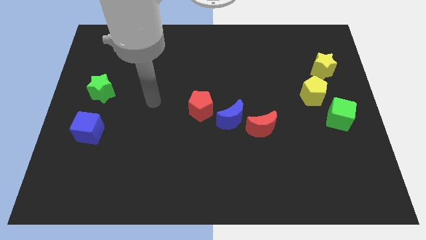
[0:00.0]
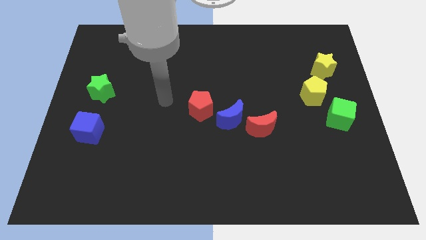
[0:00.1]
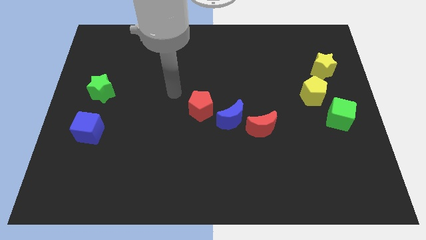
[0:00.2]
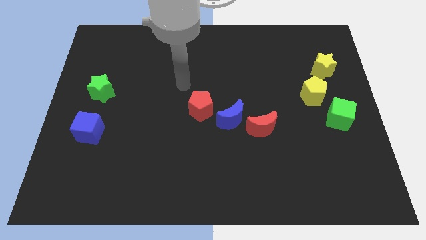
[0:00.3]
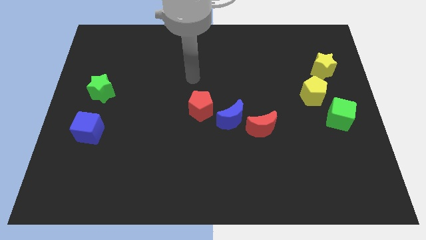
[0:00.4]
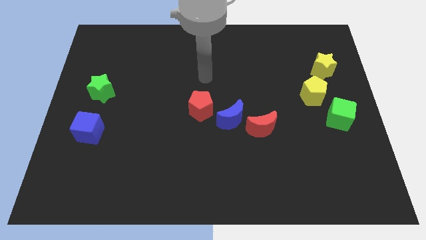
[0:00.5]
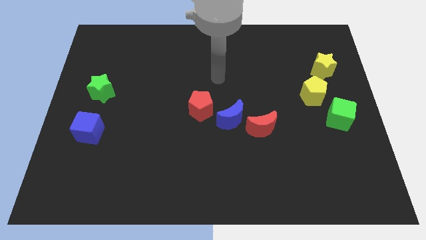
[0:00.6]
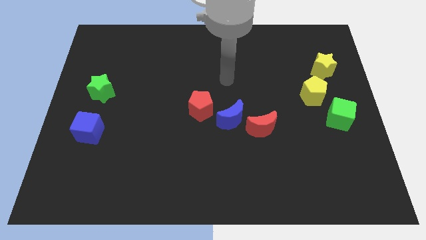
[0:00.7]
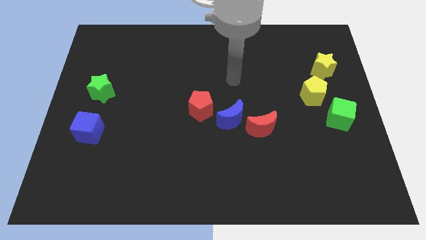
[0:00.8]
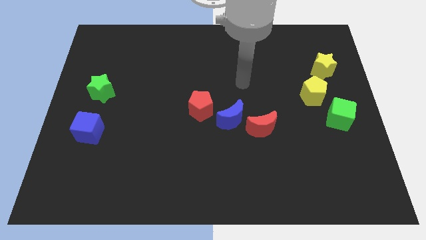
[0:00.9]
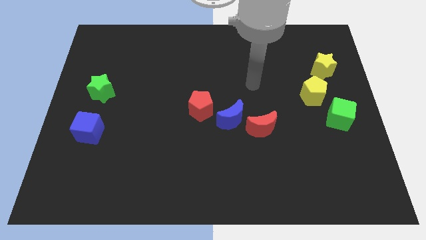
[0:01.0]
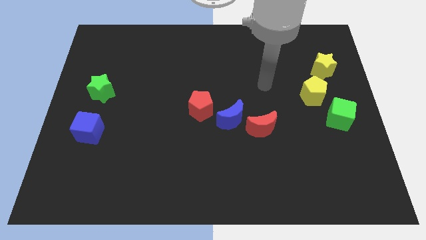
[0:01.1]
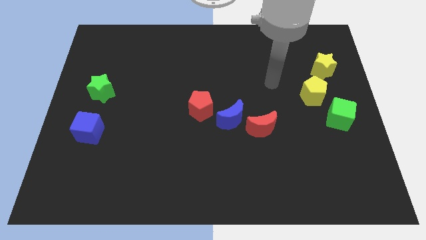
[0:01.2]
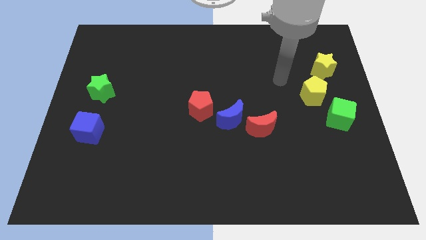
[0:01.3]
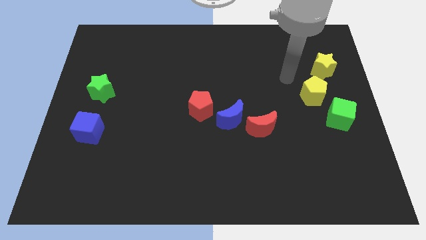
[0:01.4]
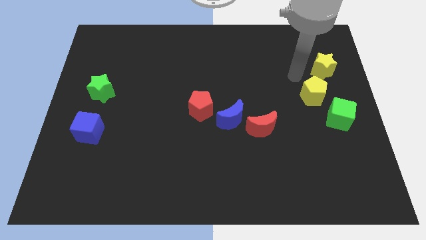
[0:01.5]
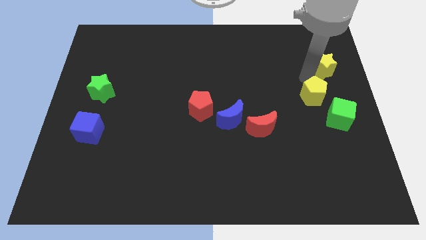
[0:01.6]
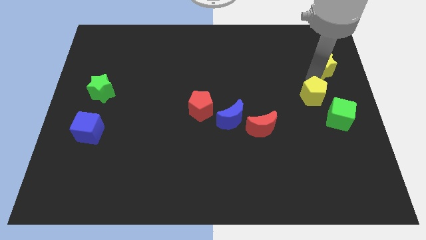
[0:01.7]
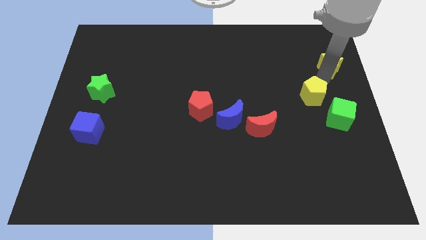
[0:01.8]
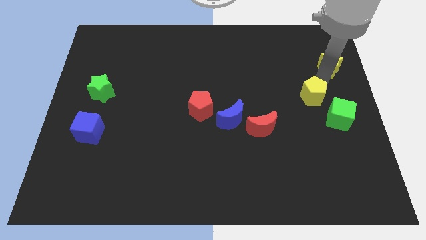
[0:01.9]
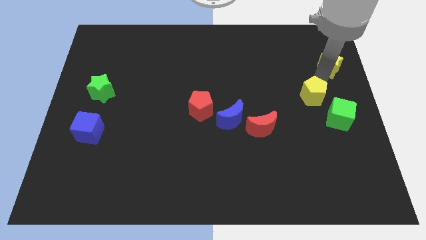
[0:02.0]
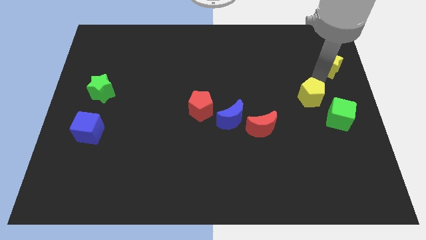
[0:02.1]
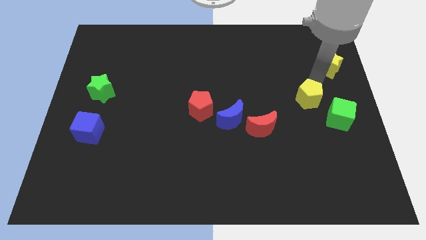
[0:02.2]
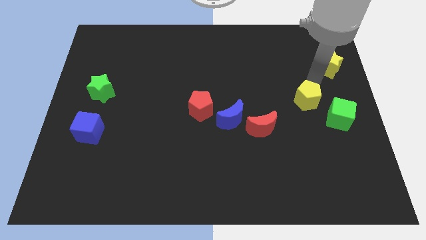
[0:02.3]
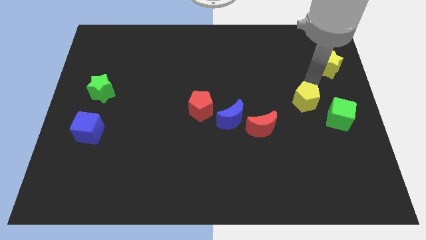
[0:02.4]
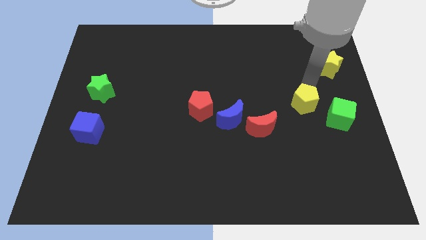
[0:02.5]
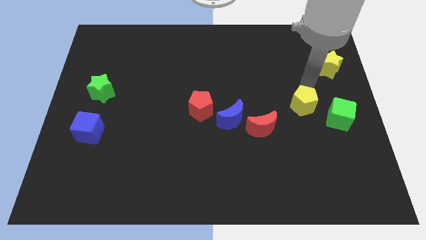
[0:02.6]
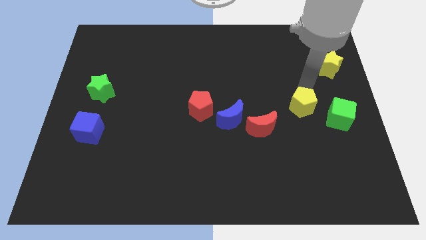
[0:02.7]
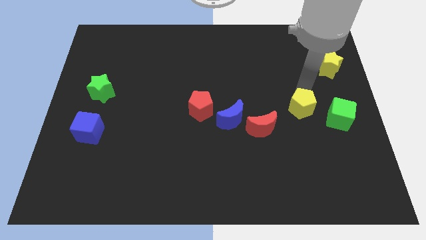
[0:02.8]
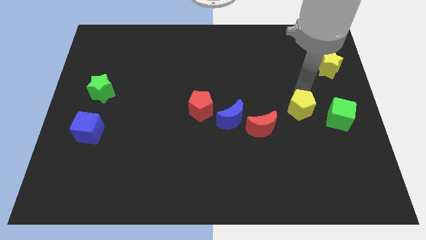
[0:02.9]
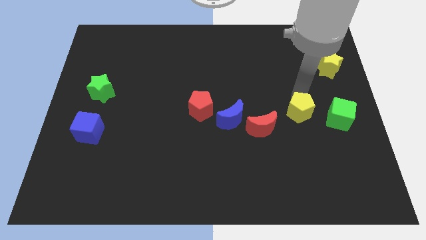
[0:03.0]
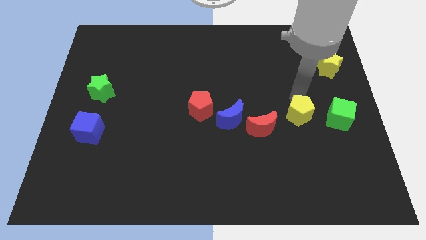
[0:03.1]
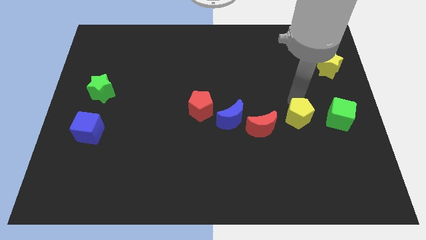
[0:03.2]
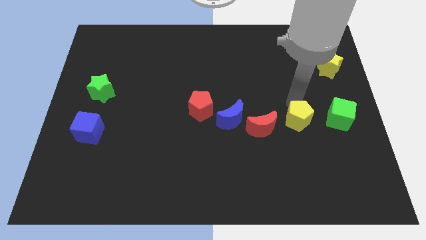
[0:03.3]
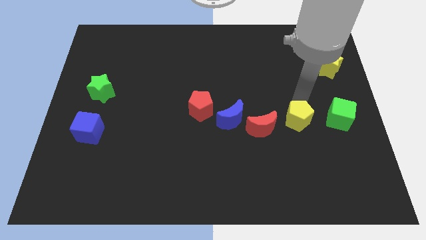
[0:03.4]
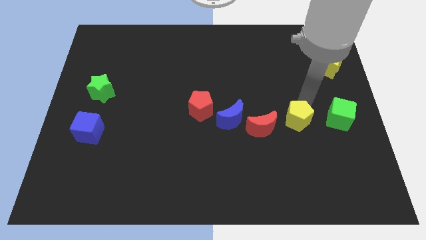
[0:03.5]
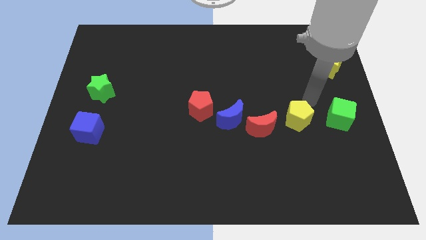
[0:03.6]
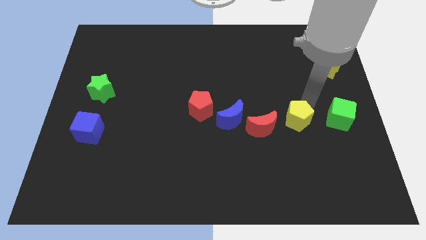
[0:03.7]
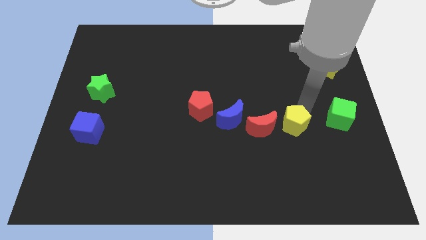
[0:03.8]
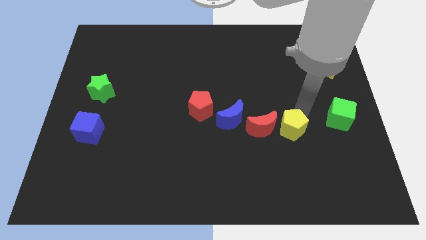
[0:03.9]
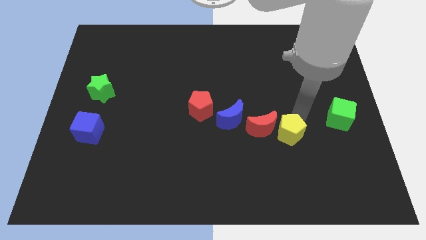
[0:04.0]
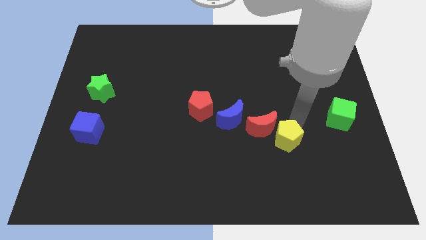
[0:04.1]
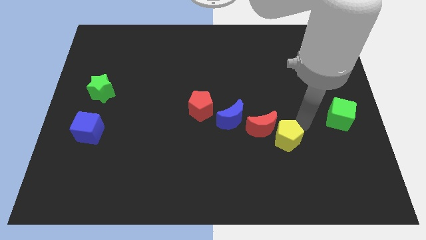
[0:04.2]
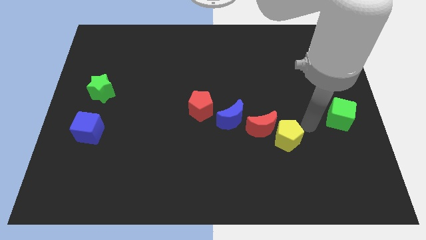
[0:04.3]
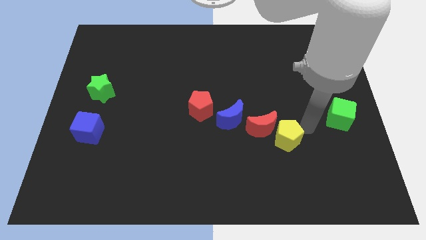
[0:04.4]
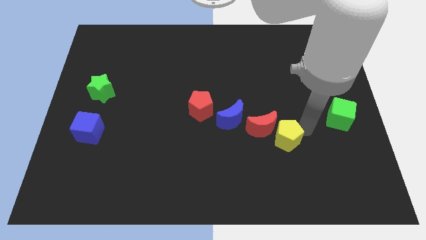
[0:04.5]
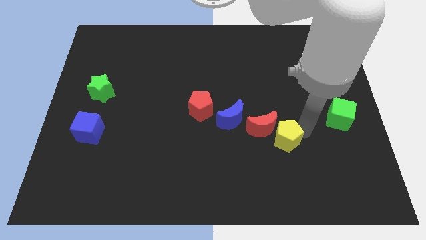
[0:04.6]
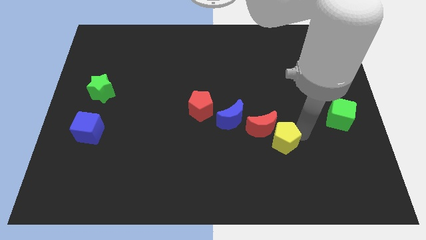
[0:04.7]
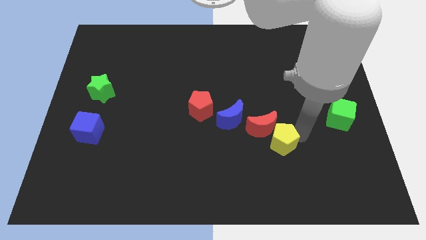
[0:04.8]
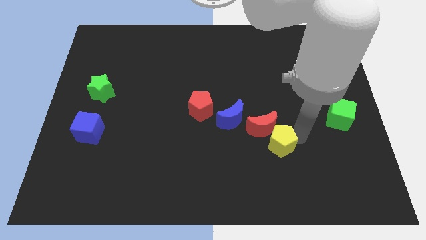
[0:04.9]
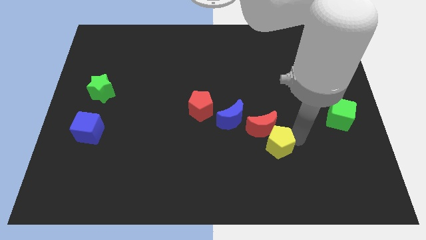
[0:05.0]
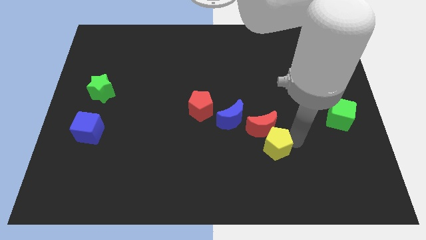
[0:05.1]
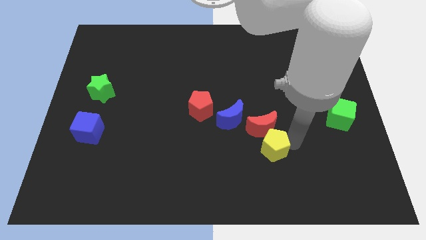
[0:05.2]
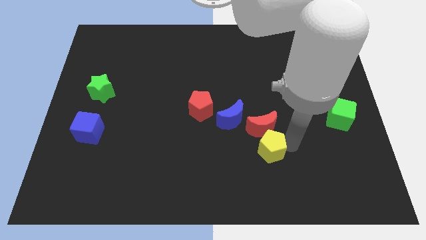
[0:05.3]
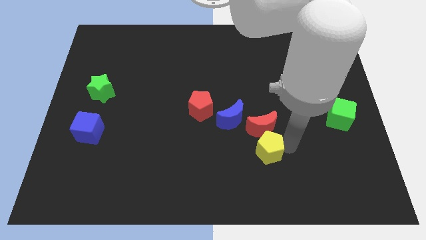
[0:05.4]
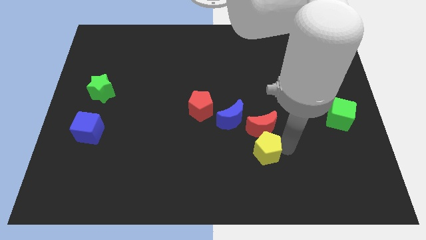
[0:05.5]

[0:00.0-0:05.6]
move the yellow pentagon down and to the left

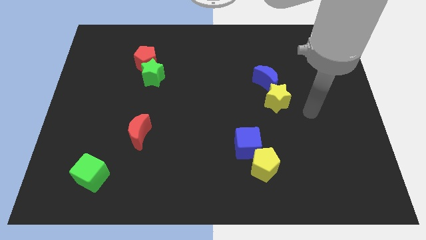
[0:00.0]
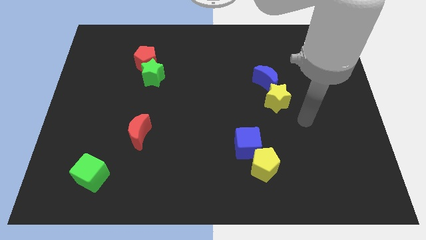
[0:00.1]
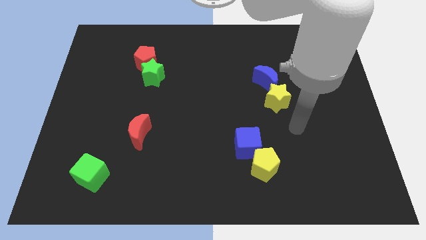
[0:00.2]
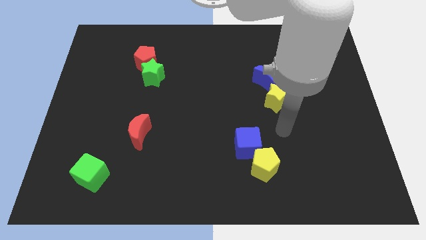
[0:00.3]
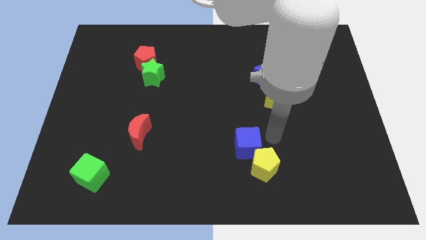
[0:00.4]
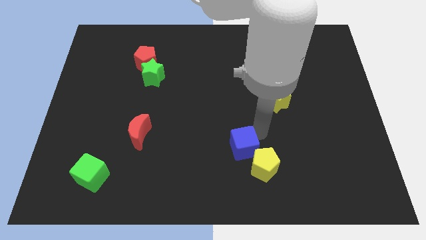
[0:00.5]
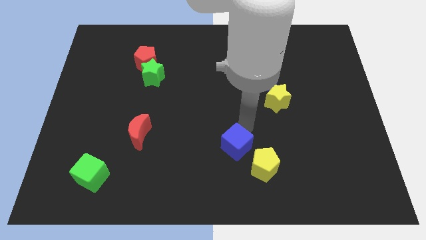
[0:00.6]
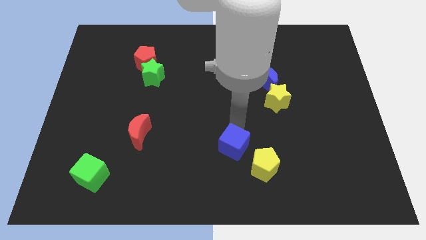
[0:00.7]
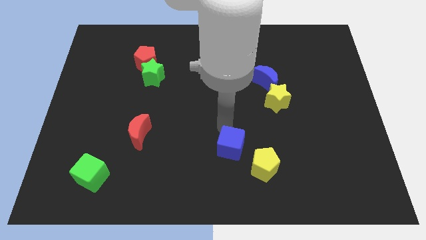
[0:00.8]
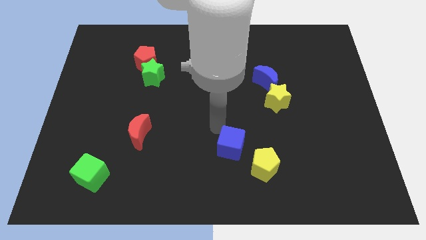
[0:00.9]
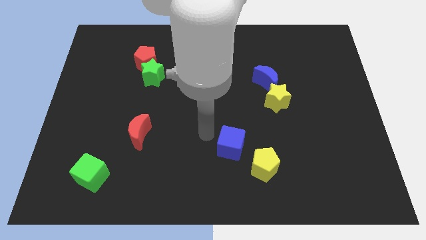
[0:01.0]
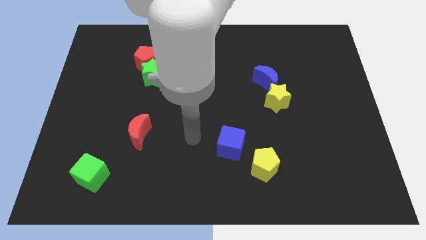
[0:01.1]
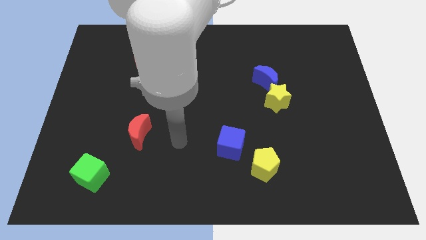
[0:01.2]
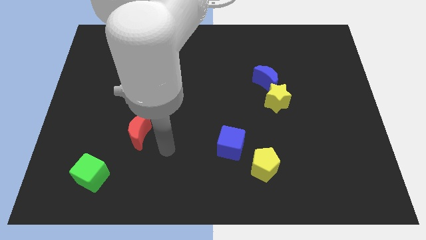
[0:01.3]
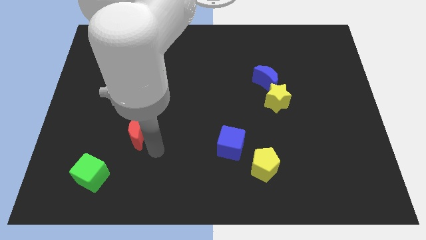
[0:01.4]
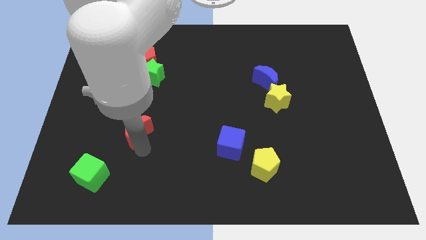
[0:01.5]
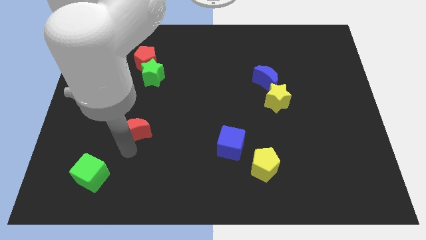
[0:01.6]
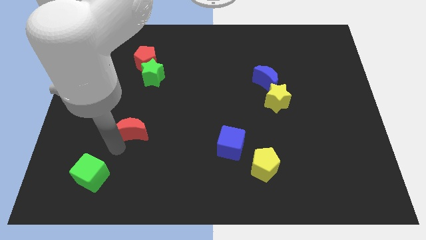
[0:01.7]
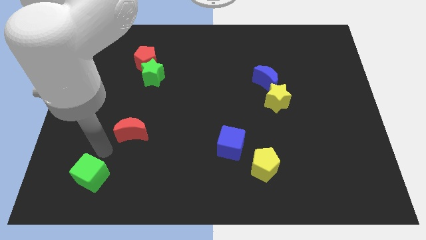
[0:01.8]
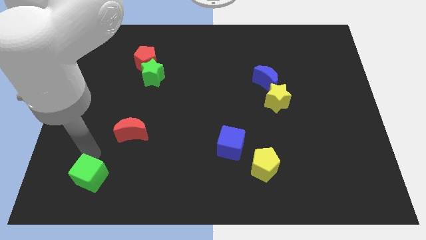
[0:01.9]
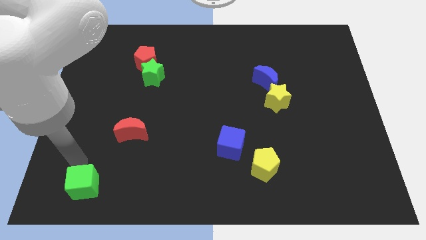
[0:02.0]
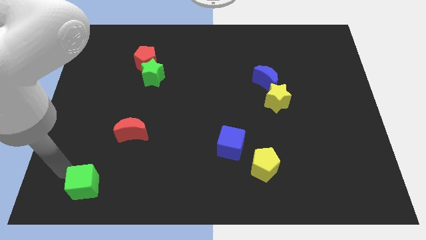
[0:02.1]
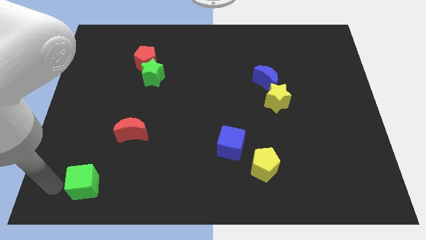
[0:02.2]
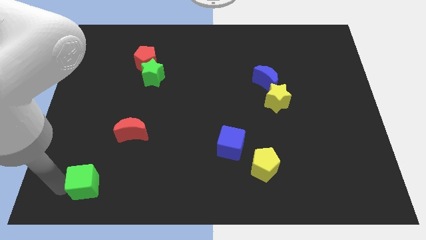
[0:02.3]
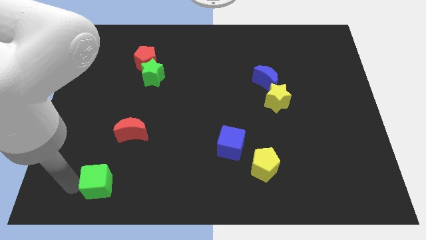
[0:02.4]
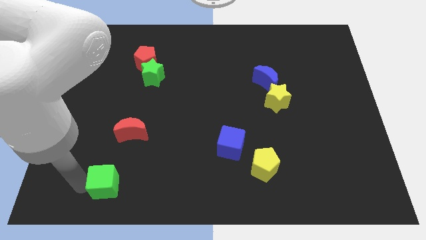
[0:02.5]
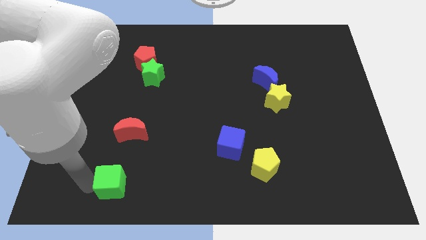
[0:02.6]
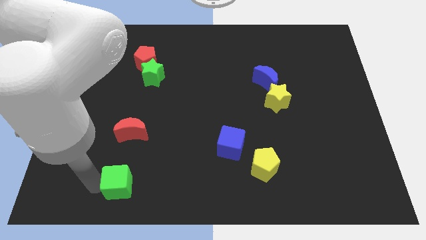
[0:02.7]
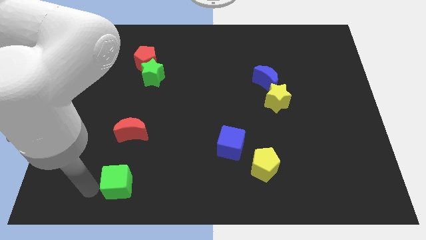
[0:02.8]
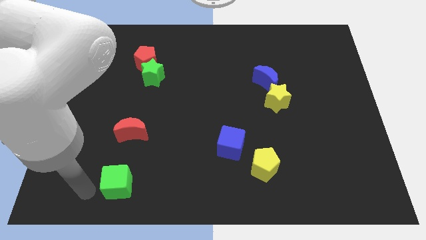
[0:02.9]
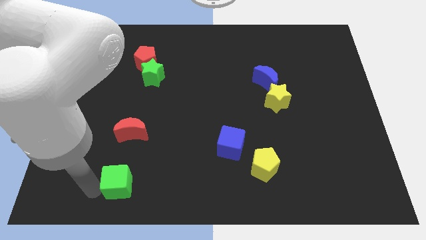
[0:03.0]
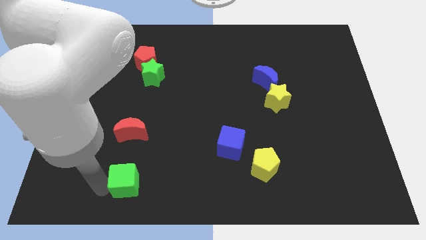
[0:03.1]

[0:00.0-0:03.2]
move the green cube a little bit right
